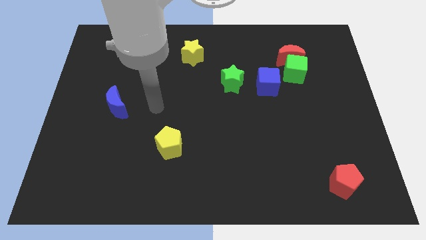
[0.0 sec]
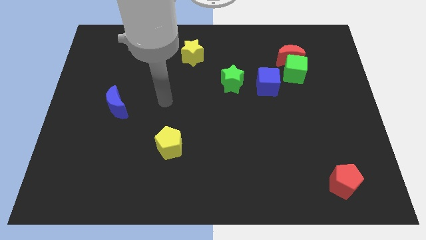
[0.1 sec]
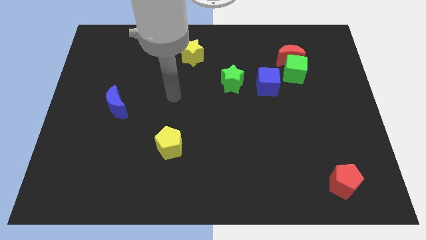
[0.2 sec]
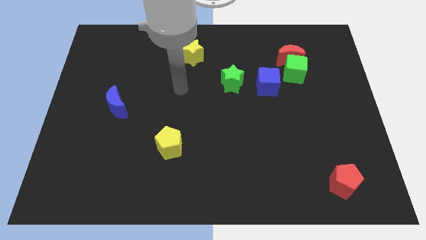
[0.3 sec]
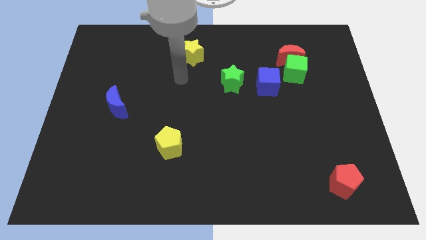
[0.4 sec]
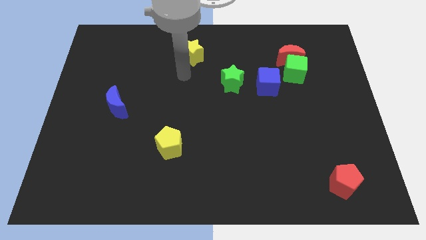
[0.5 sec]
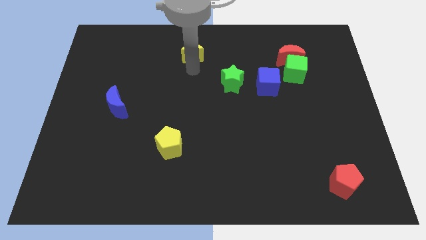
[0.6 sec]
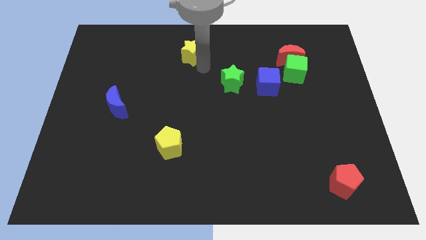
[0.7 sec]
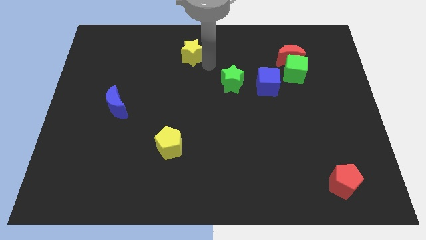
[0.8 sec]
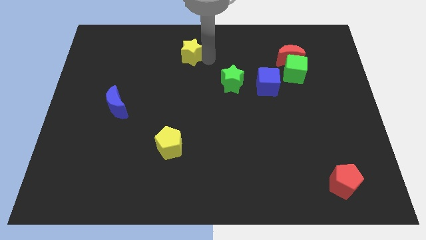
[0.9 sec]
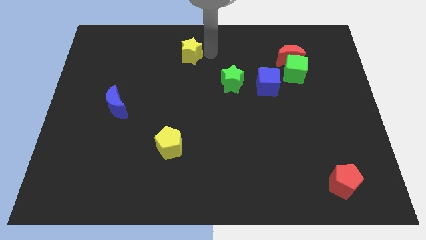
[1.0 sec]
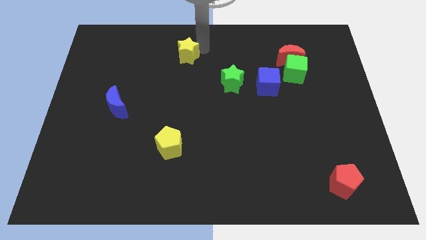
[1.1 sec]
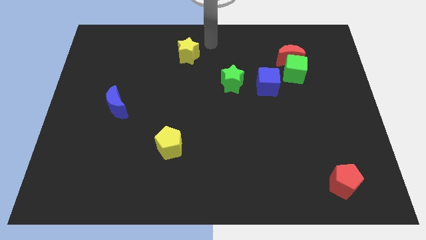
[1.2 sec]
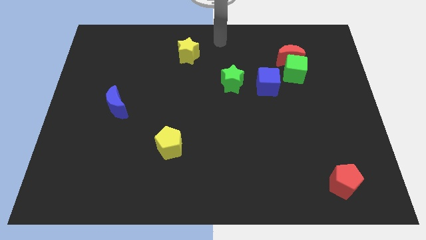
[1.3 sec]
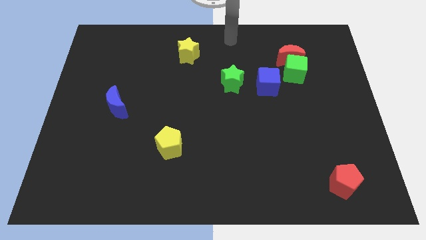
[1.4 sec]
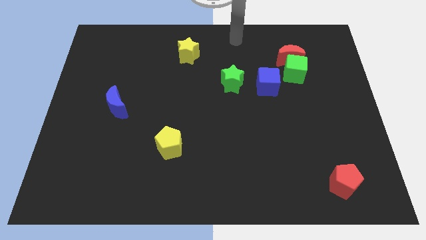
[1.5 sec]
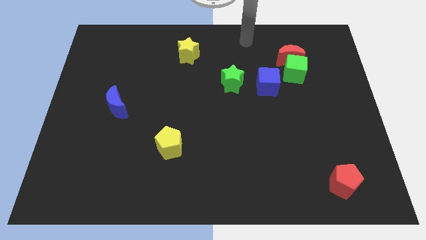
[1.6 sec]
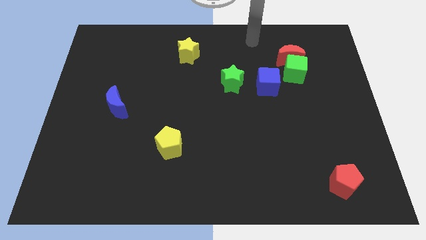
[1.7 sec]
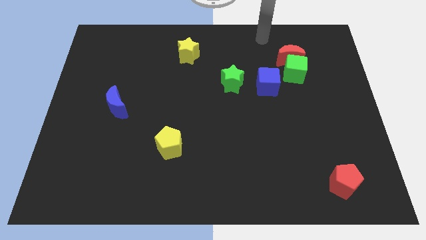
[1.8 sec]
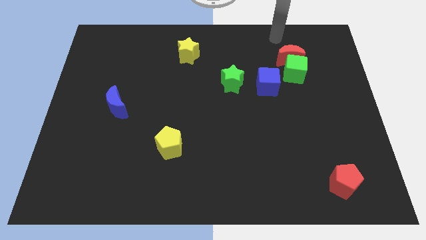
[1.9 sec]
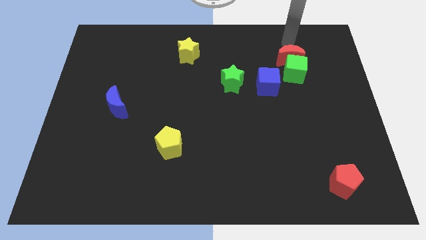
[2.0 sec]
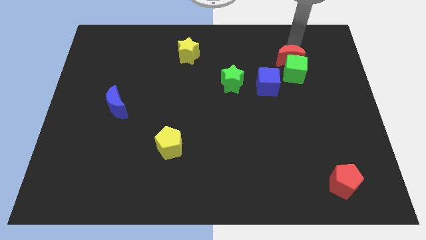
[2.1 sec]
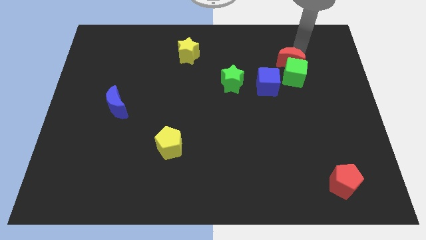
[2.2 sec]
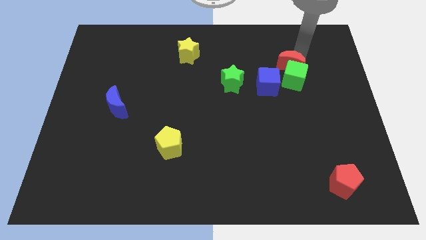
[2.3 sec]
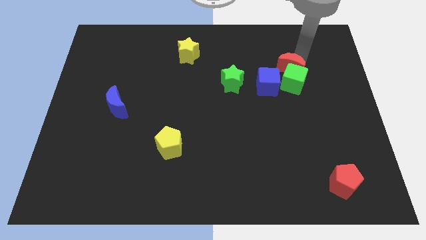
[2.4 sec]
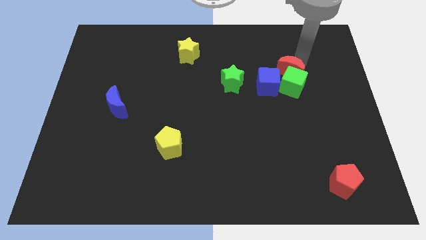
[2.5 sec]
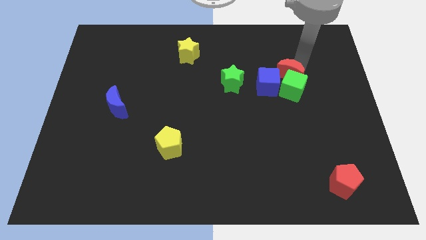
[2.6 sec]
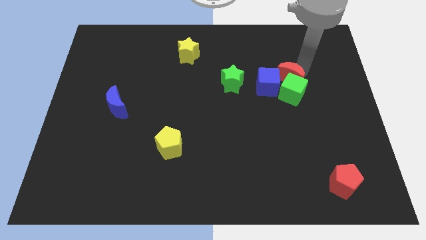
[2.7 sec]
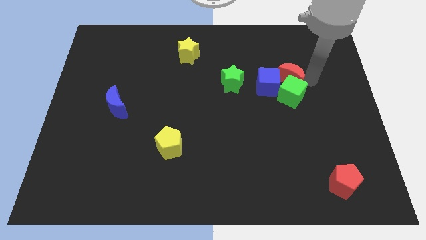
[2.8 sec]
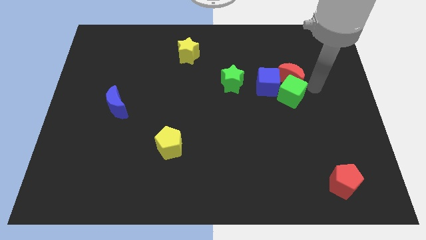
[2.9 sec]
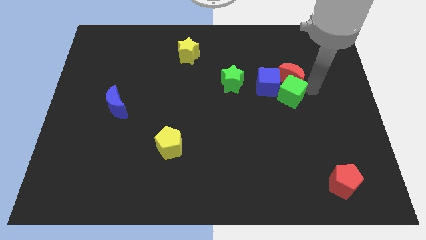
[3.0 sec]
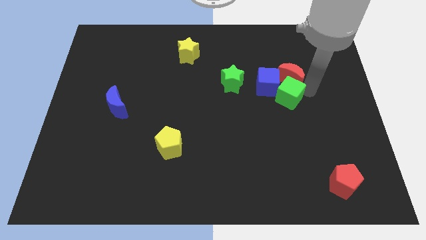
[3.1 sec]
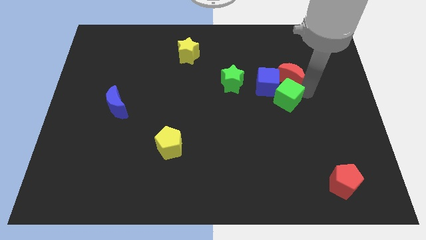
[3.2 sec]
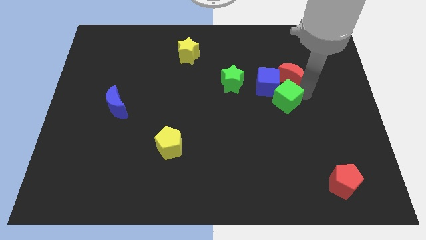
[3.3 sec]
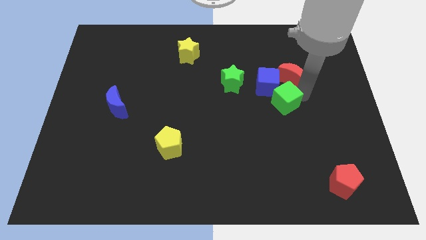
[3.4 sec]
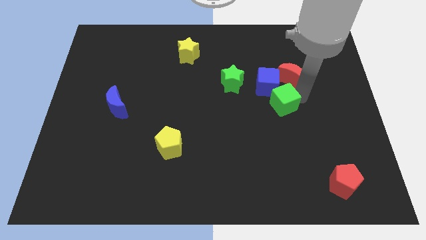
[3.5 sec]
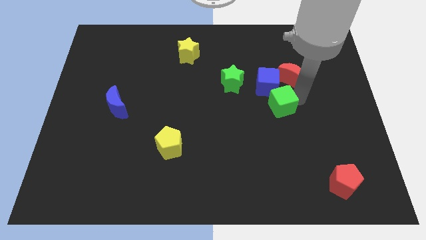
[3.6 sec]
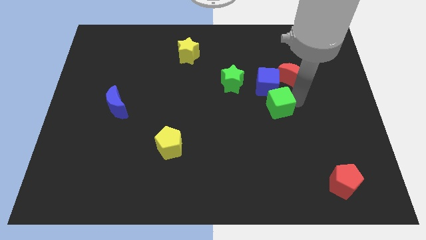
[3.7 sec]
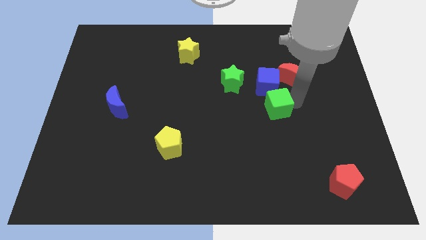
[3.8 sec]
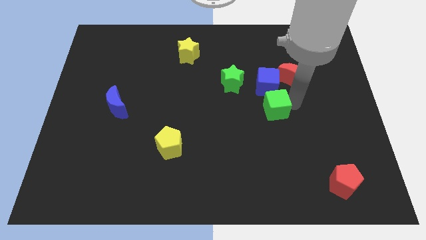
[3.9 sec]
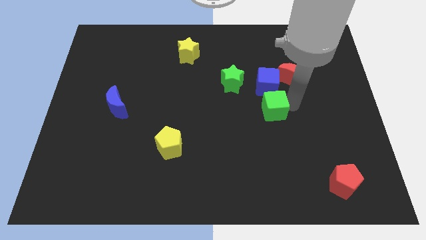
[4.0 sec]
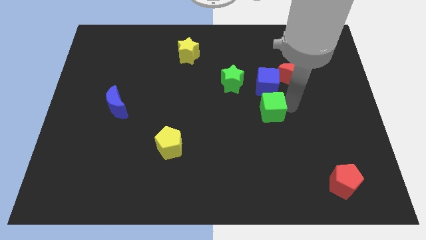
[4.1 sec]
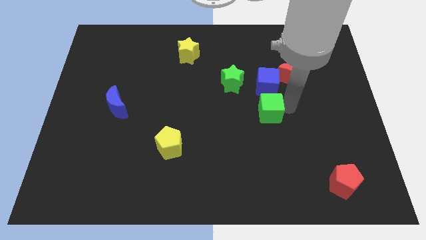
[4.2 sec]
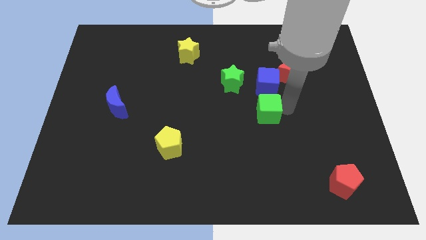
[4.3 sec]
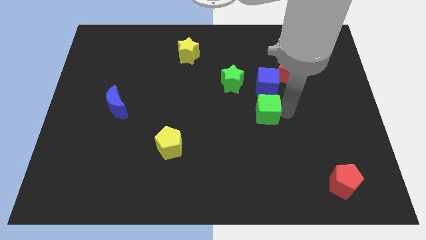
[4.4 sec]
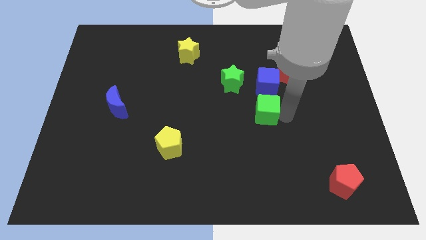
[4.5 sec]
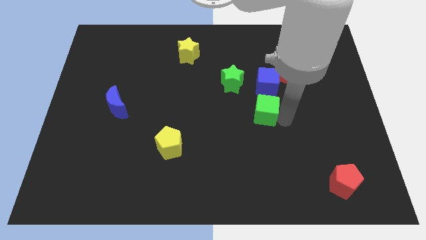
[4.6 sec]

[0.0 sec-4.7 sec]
put the green cube to the center

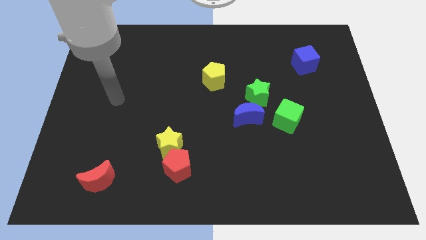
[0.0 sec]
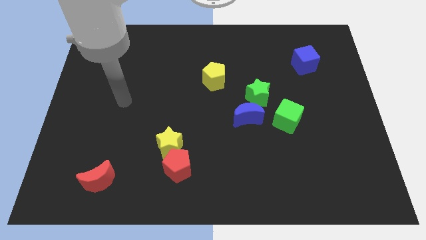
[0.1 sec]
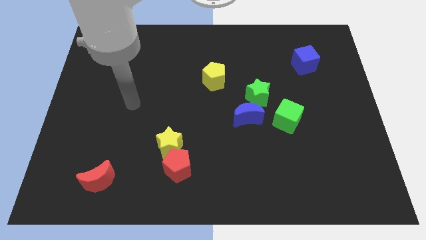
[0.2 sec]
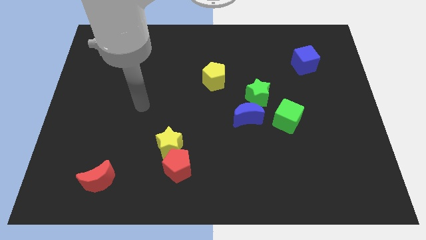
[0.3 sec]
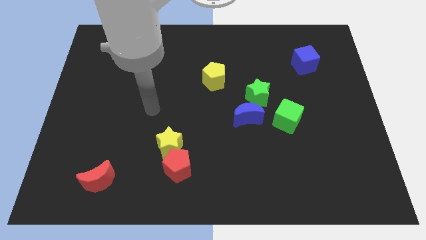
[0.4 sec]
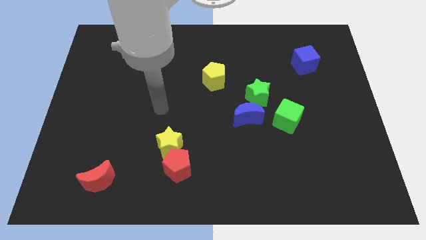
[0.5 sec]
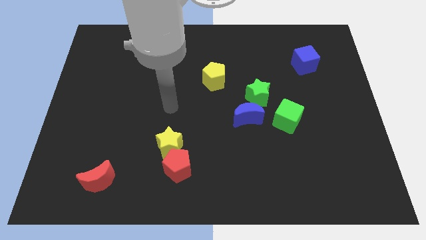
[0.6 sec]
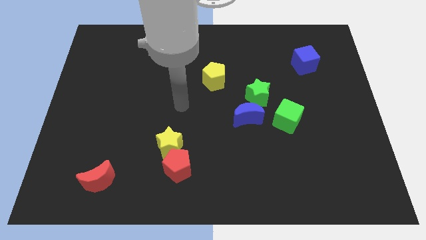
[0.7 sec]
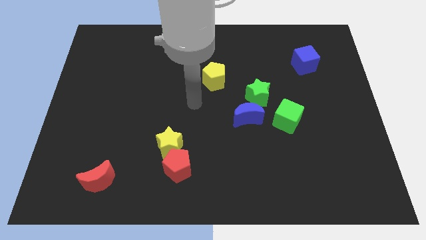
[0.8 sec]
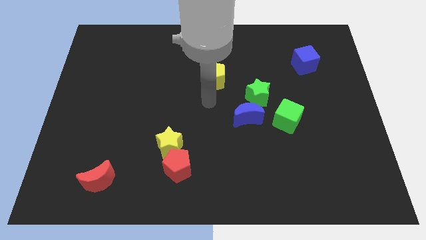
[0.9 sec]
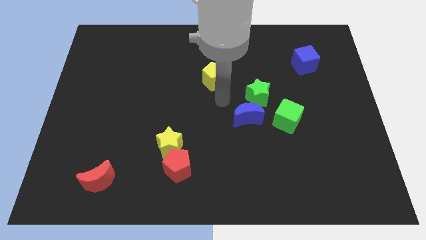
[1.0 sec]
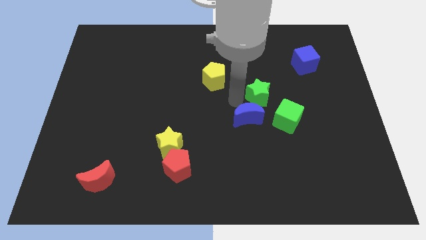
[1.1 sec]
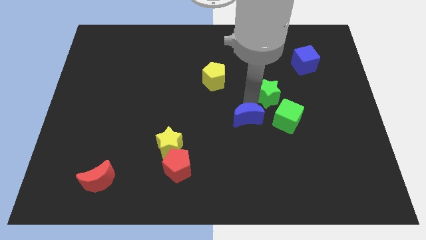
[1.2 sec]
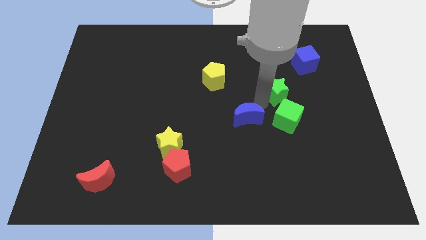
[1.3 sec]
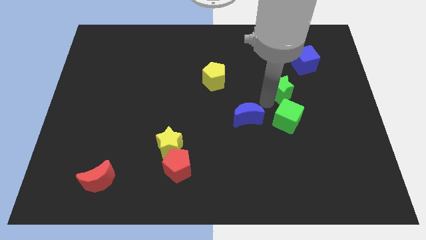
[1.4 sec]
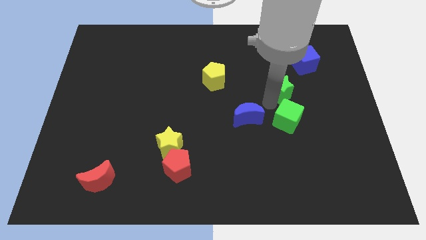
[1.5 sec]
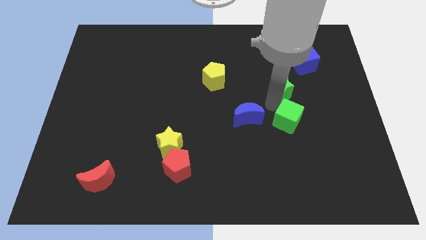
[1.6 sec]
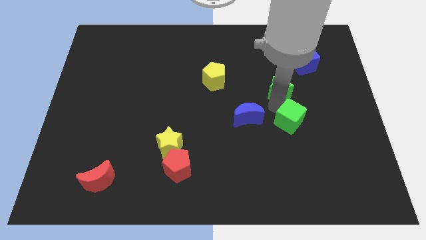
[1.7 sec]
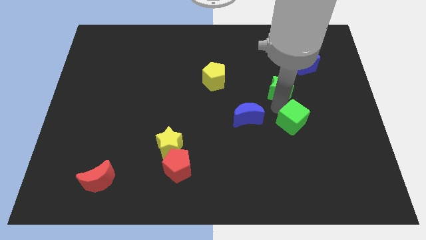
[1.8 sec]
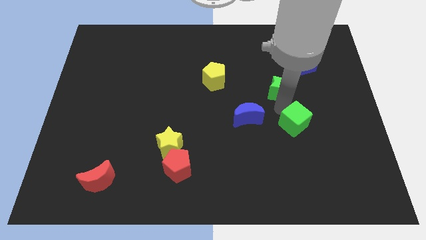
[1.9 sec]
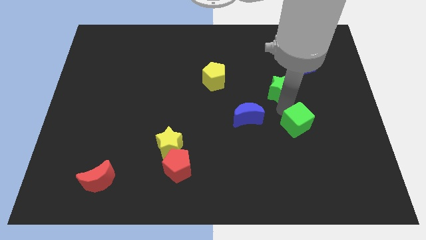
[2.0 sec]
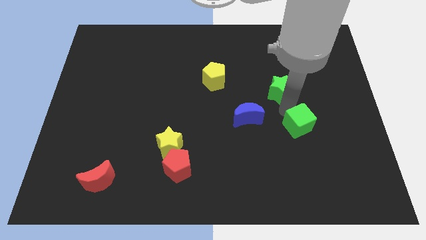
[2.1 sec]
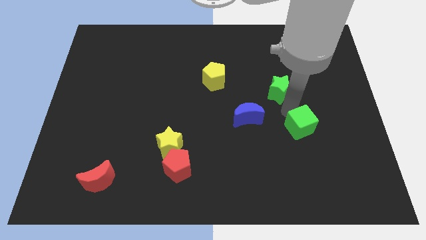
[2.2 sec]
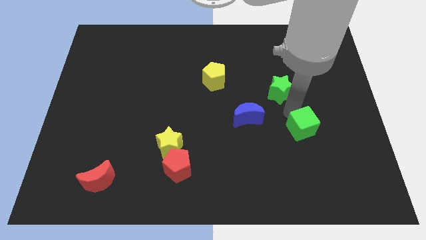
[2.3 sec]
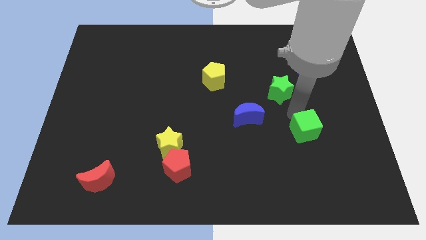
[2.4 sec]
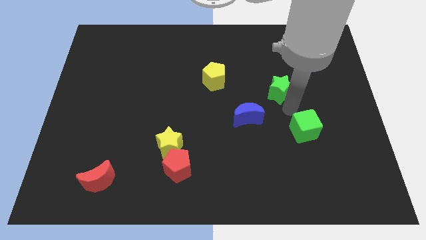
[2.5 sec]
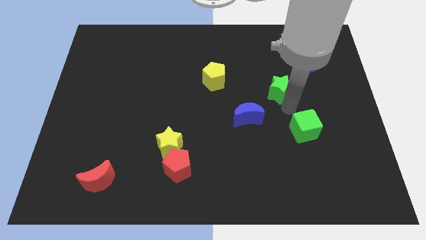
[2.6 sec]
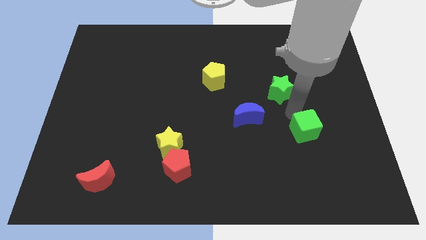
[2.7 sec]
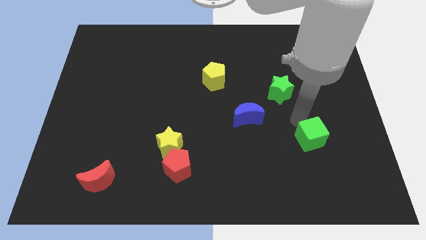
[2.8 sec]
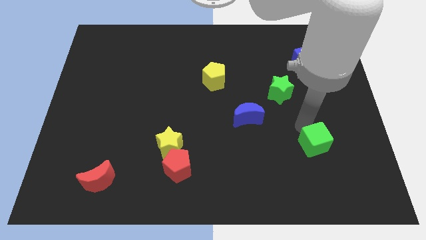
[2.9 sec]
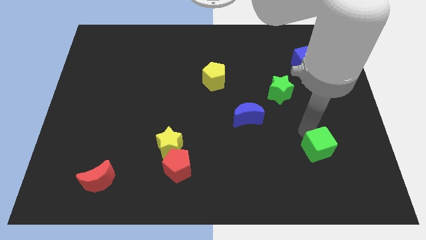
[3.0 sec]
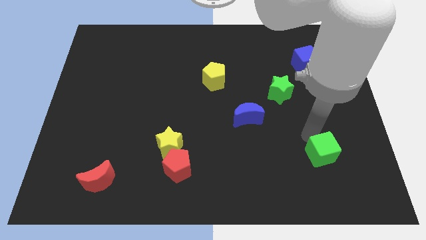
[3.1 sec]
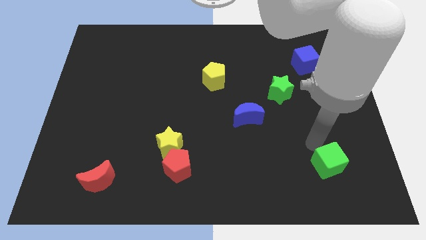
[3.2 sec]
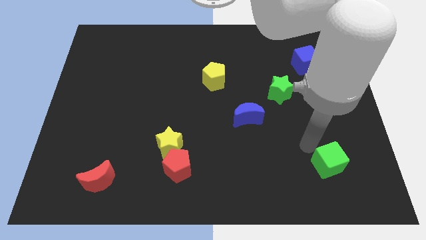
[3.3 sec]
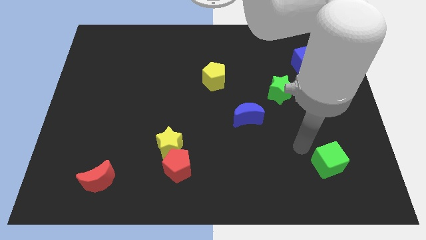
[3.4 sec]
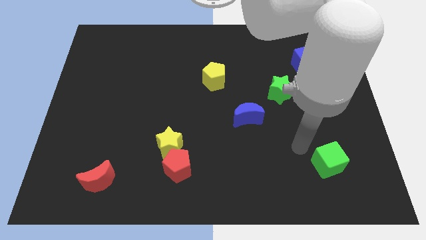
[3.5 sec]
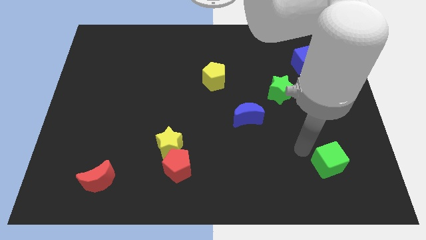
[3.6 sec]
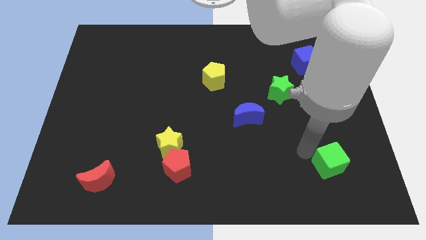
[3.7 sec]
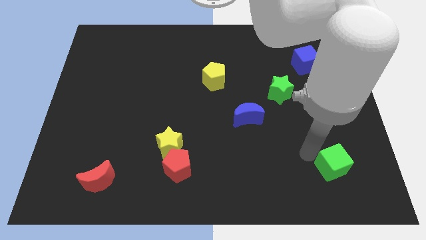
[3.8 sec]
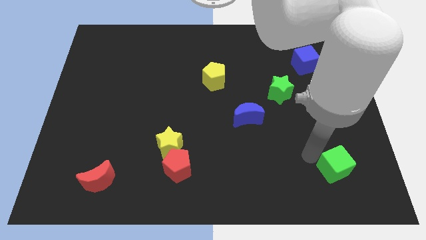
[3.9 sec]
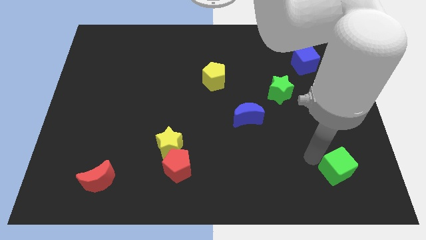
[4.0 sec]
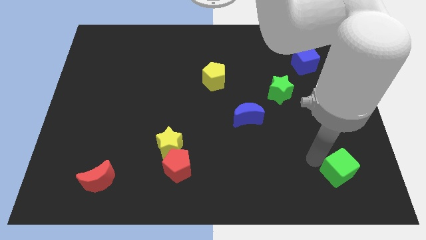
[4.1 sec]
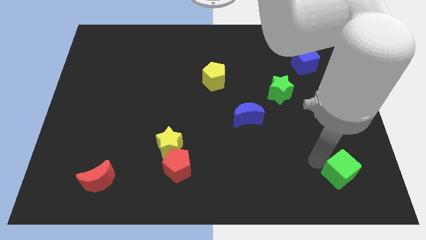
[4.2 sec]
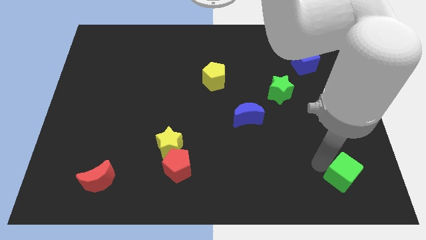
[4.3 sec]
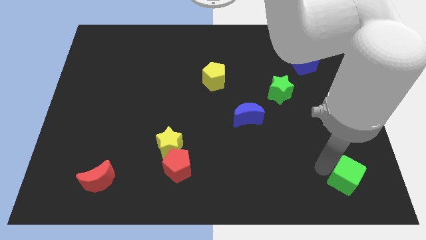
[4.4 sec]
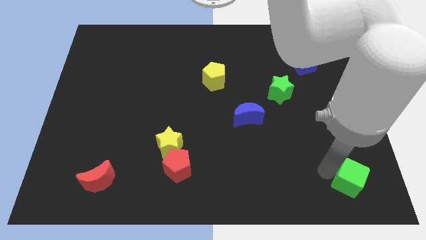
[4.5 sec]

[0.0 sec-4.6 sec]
move the green cube to the bottom right of the board
